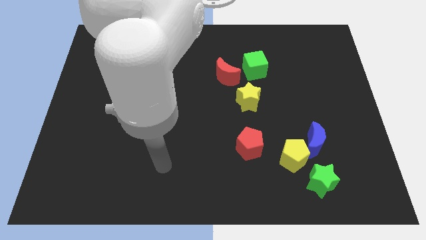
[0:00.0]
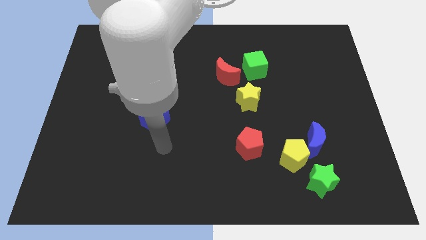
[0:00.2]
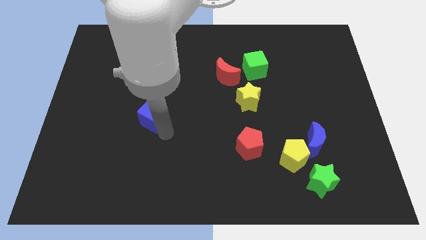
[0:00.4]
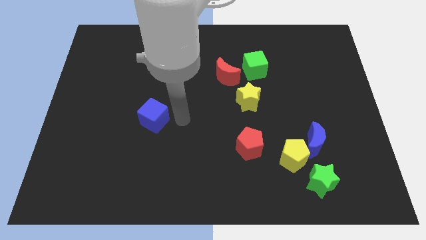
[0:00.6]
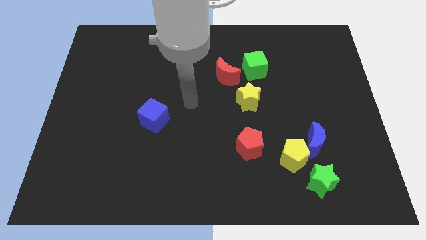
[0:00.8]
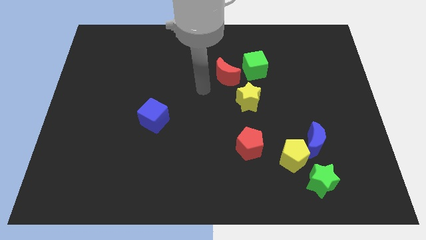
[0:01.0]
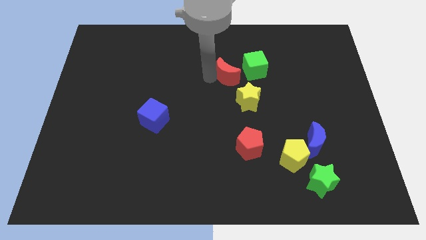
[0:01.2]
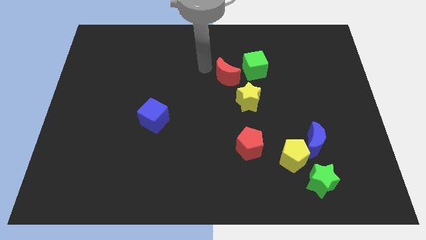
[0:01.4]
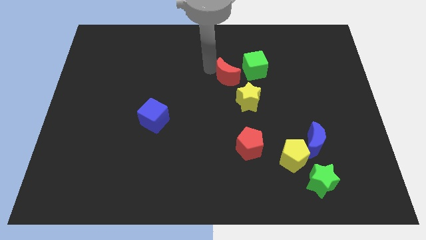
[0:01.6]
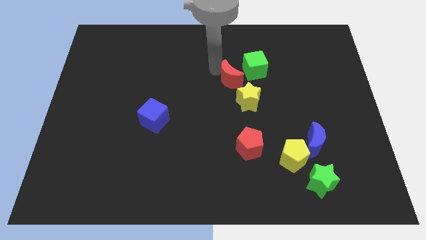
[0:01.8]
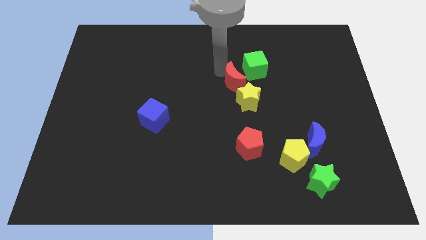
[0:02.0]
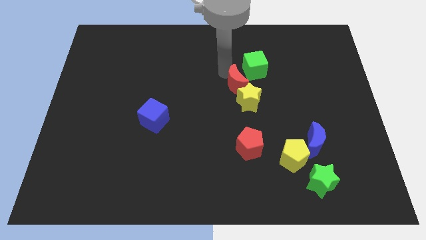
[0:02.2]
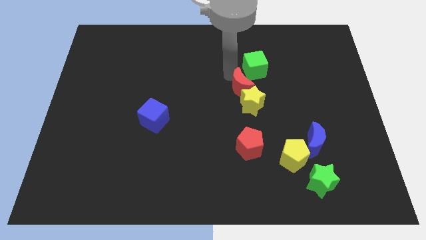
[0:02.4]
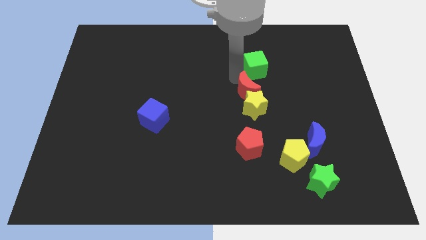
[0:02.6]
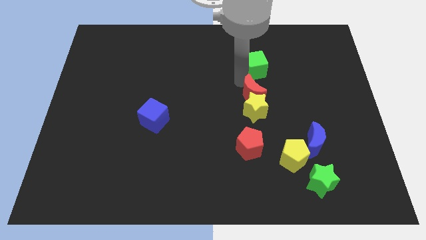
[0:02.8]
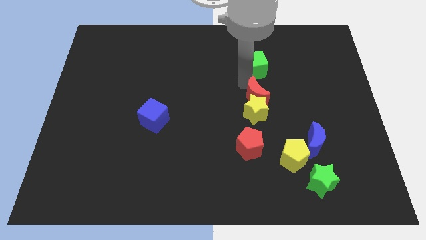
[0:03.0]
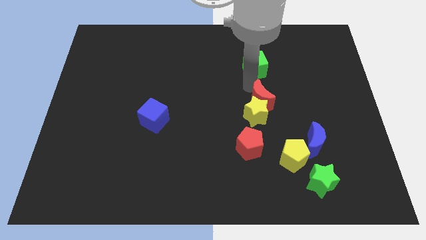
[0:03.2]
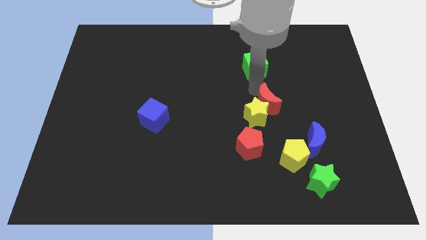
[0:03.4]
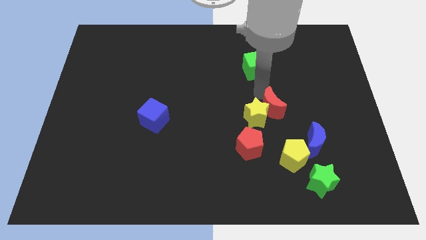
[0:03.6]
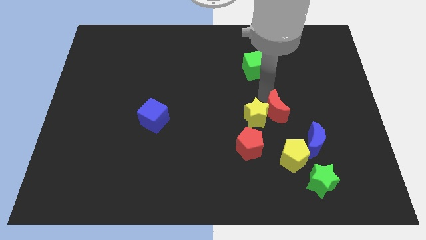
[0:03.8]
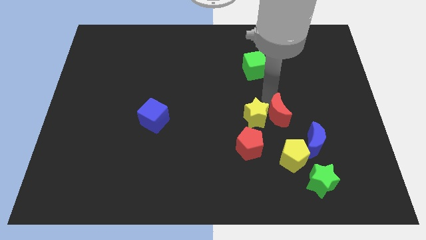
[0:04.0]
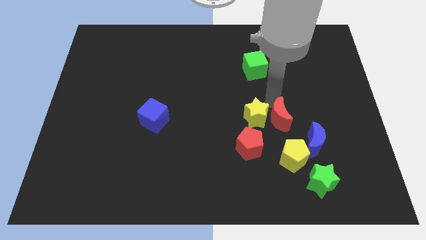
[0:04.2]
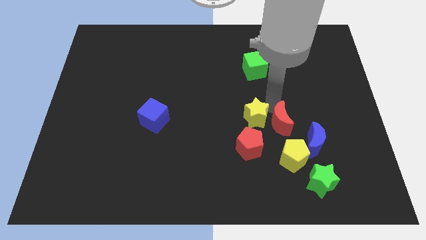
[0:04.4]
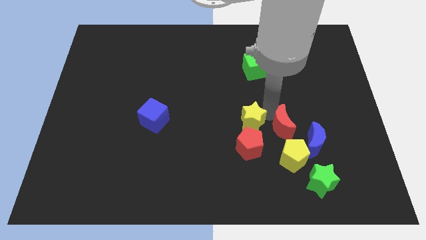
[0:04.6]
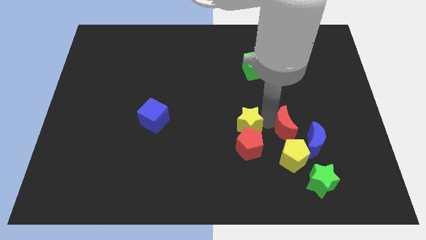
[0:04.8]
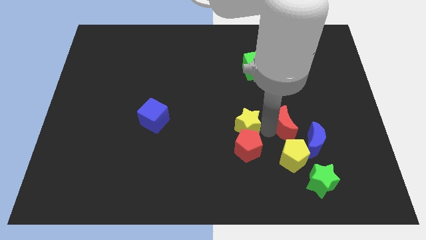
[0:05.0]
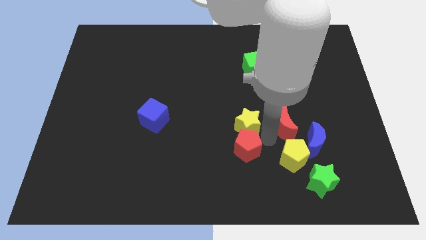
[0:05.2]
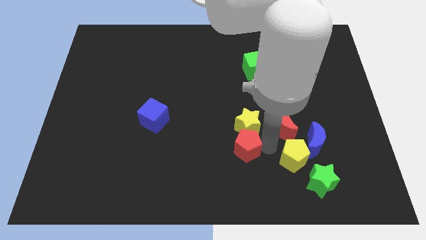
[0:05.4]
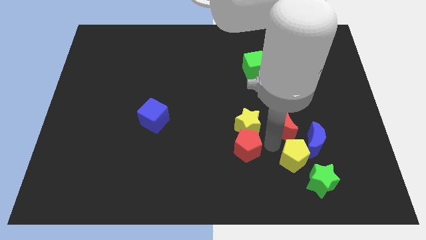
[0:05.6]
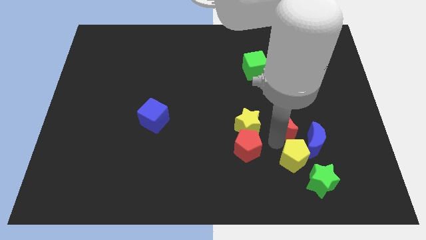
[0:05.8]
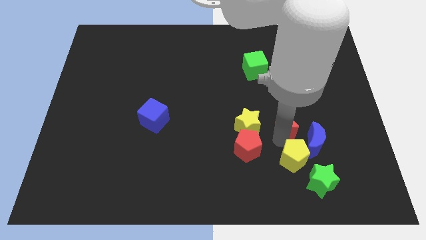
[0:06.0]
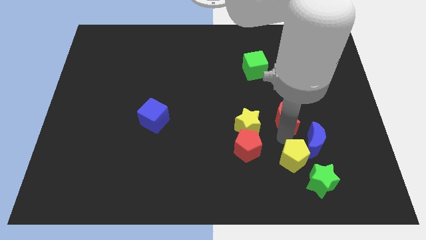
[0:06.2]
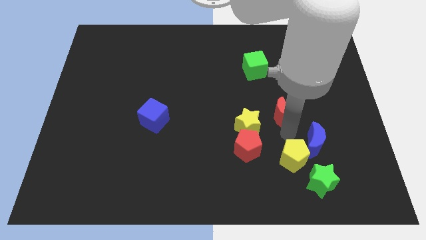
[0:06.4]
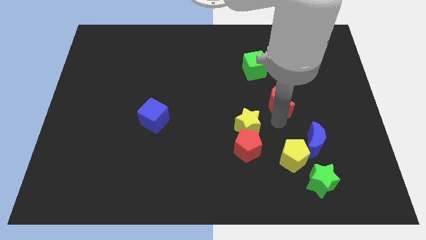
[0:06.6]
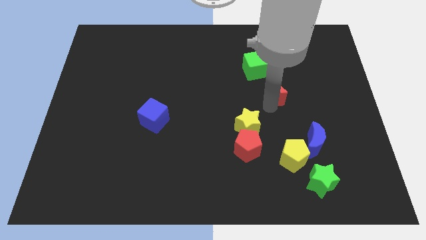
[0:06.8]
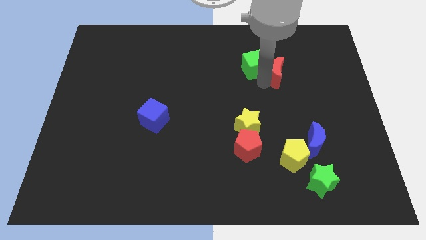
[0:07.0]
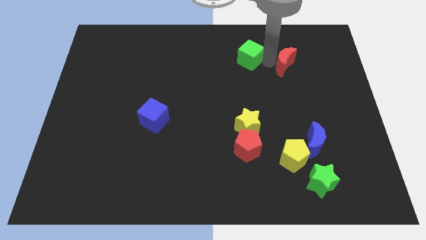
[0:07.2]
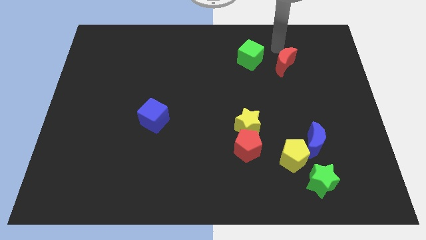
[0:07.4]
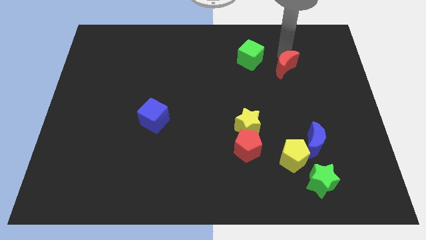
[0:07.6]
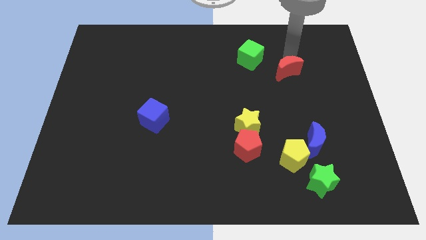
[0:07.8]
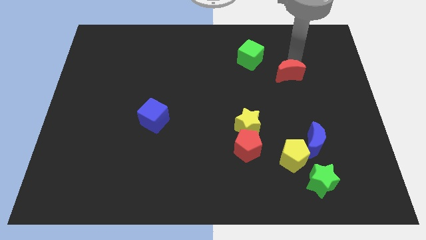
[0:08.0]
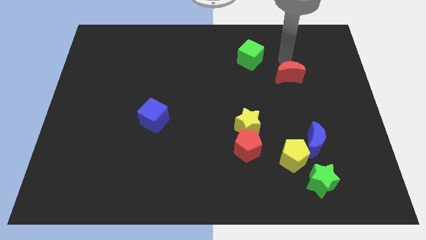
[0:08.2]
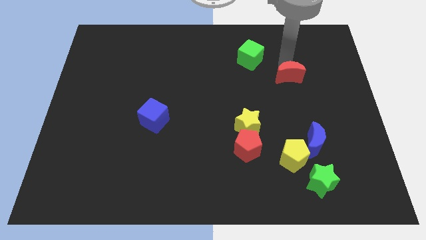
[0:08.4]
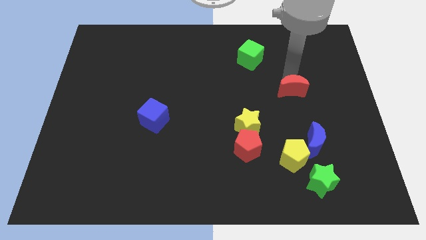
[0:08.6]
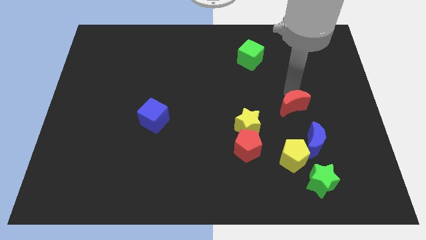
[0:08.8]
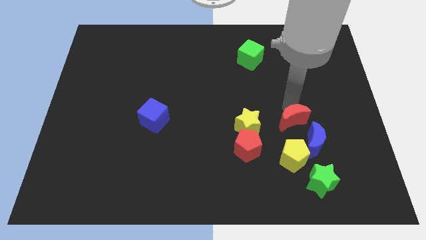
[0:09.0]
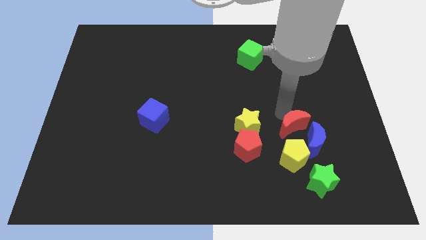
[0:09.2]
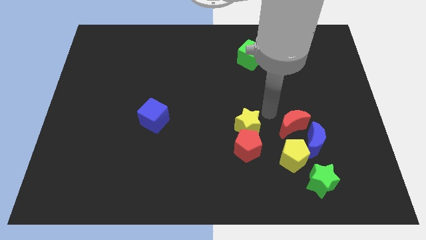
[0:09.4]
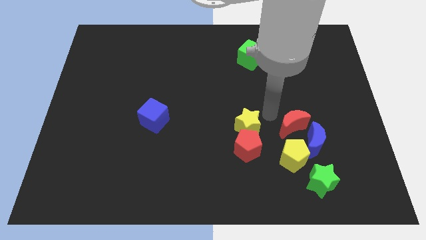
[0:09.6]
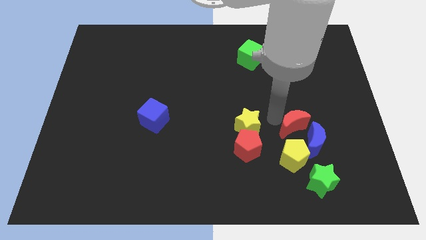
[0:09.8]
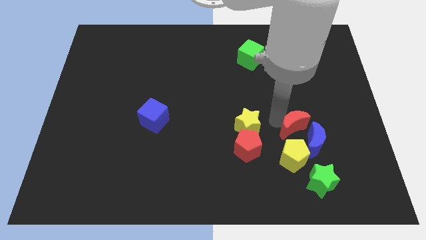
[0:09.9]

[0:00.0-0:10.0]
put the red moon diagonally up and to the right of the yellow pentagon

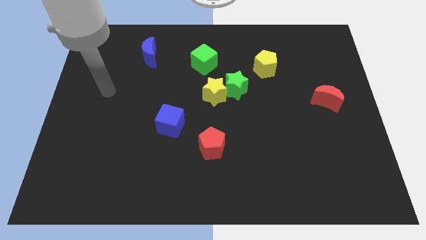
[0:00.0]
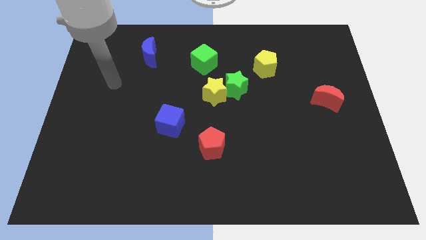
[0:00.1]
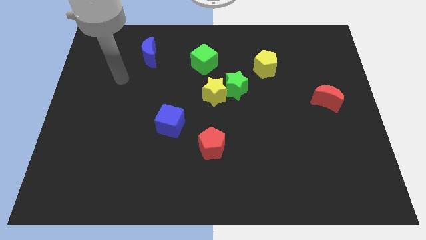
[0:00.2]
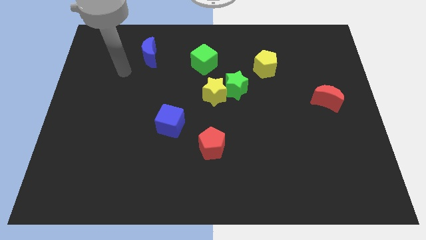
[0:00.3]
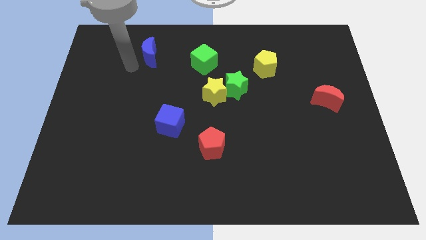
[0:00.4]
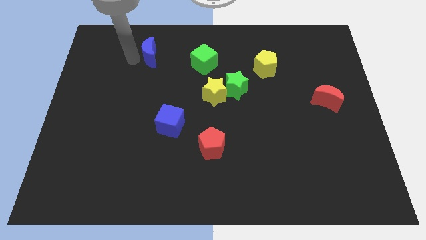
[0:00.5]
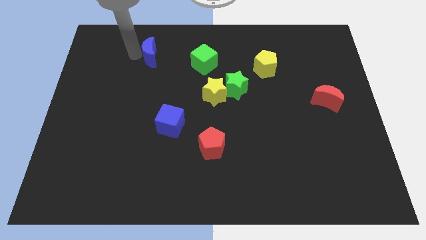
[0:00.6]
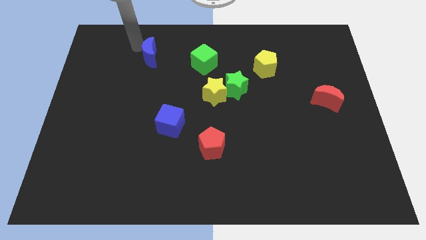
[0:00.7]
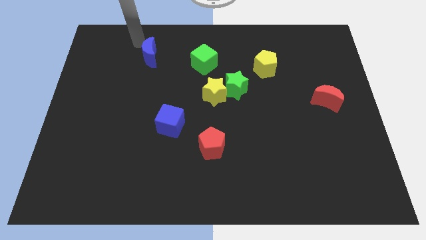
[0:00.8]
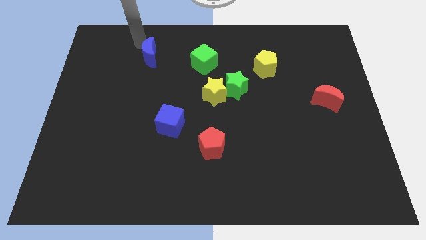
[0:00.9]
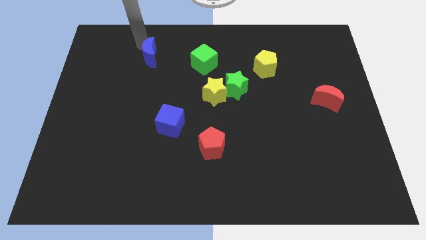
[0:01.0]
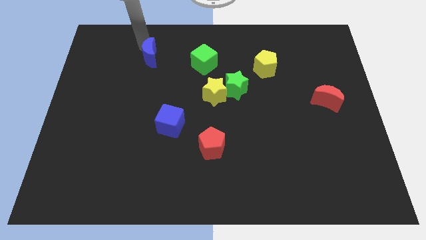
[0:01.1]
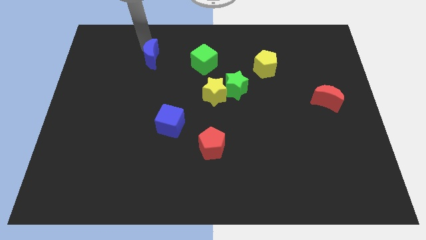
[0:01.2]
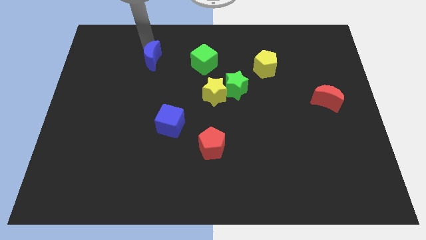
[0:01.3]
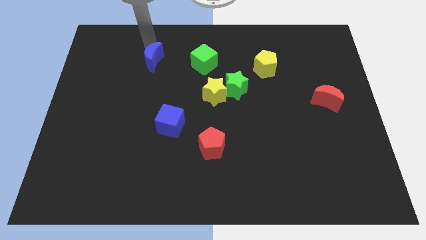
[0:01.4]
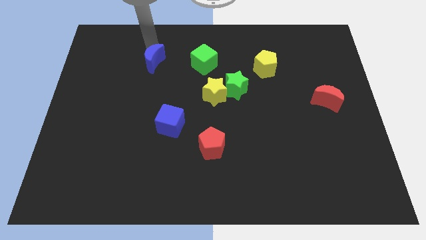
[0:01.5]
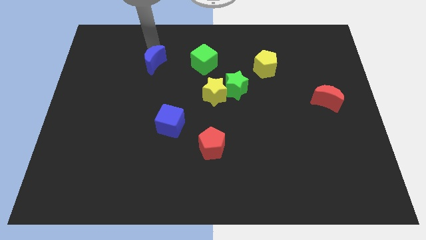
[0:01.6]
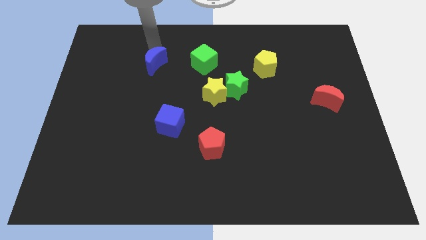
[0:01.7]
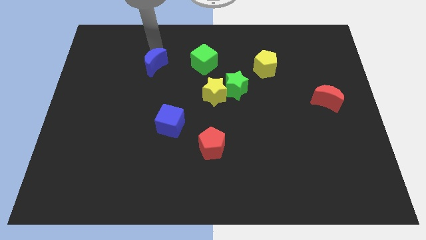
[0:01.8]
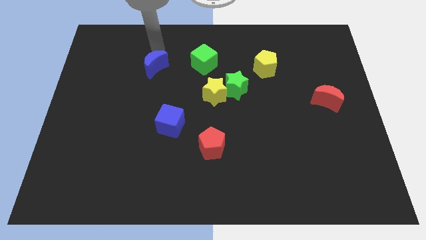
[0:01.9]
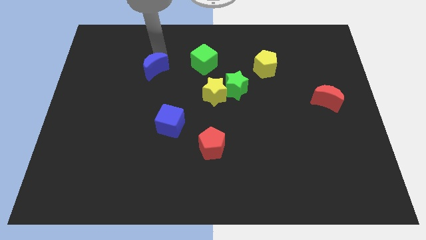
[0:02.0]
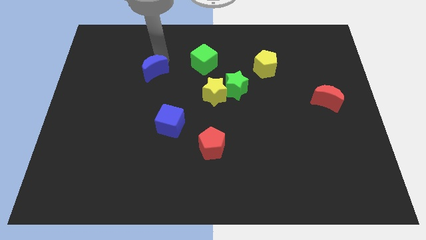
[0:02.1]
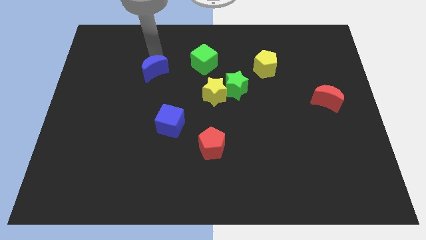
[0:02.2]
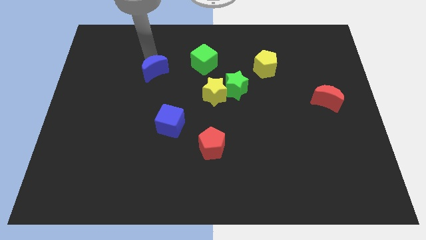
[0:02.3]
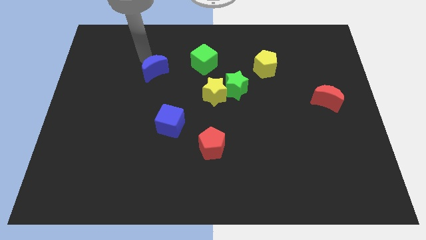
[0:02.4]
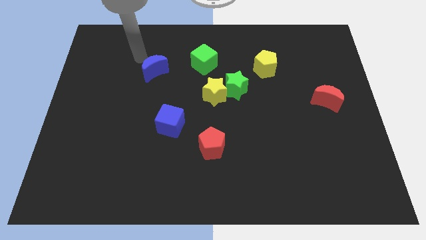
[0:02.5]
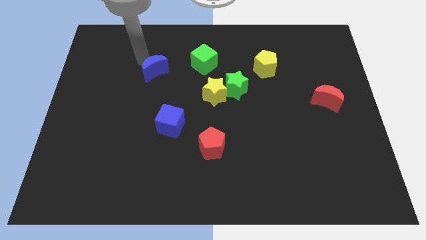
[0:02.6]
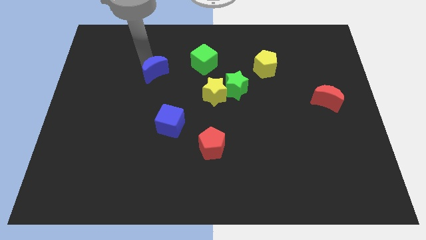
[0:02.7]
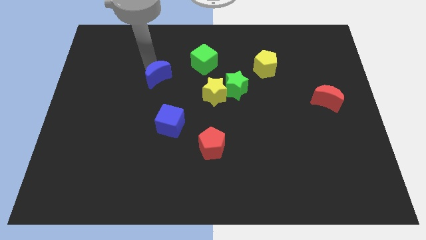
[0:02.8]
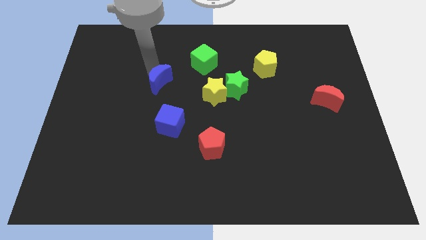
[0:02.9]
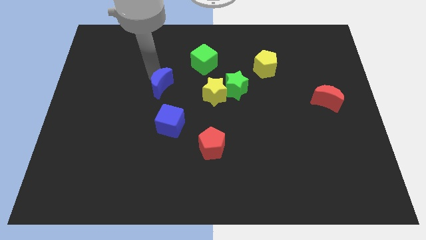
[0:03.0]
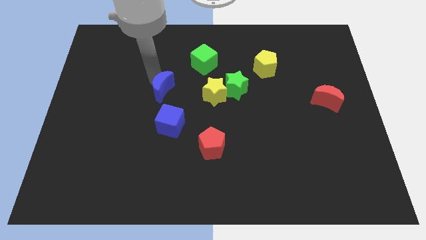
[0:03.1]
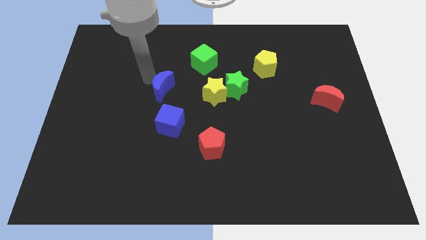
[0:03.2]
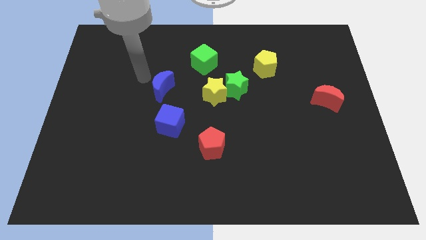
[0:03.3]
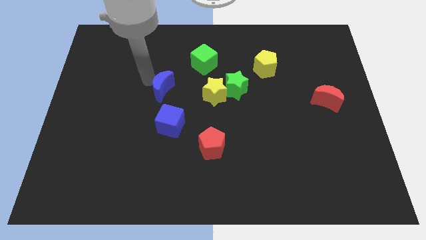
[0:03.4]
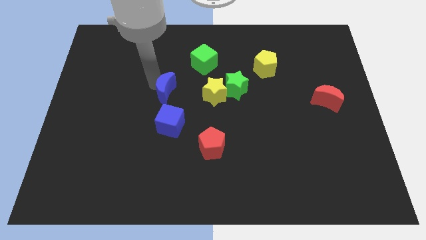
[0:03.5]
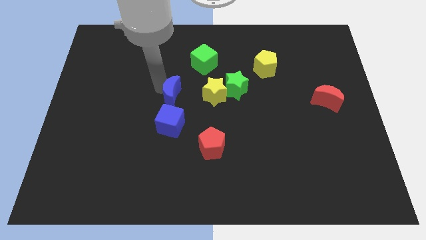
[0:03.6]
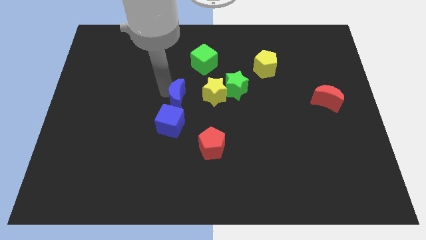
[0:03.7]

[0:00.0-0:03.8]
slide the blue moon to the top right of the blue cube
